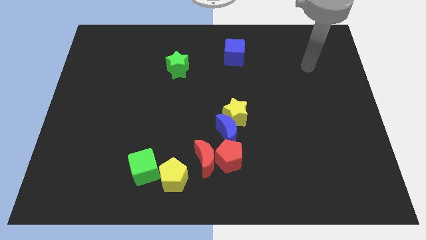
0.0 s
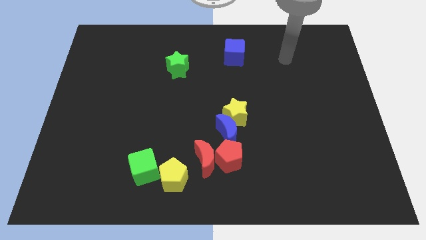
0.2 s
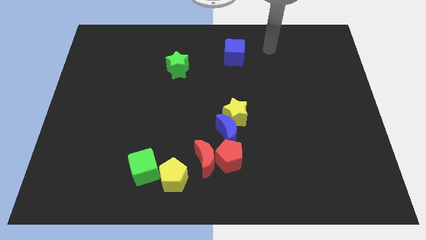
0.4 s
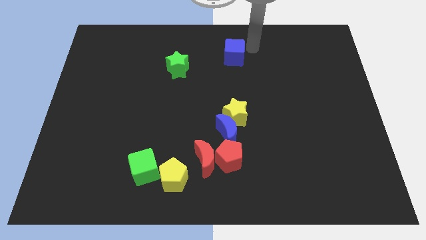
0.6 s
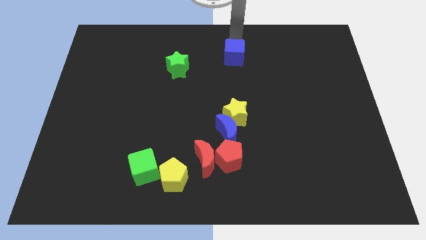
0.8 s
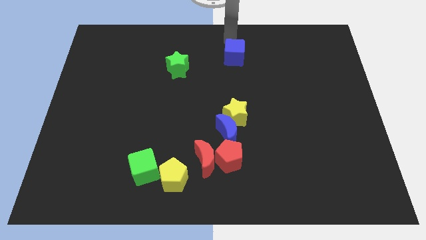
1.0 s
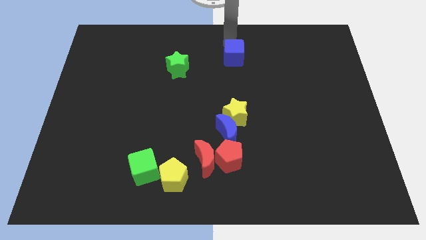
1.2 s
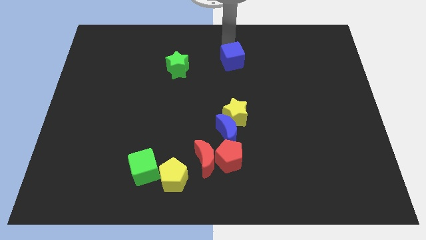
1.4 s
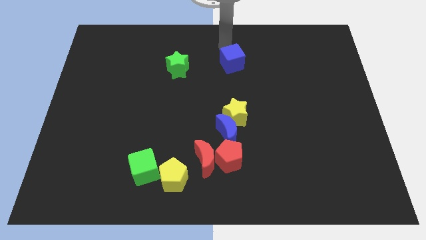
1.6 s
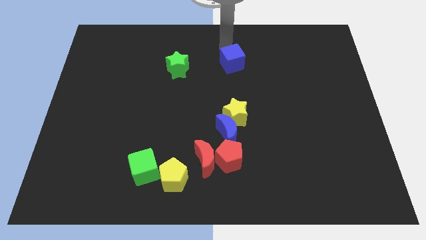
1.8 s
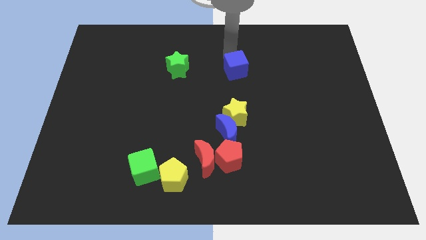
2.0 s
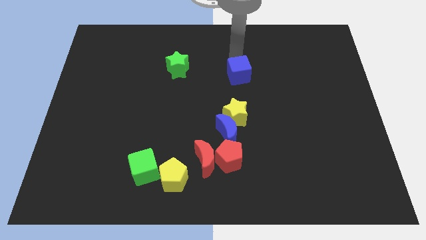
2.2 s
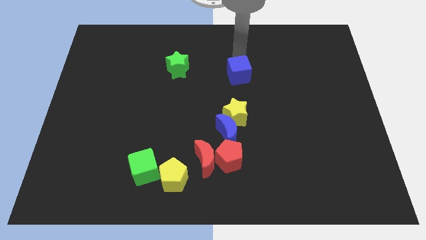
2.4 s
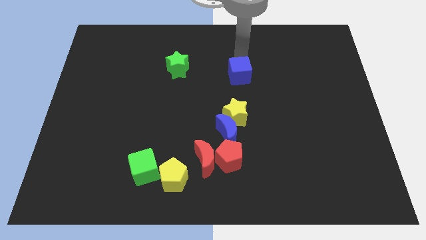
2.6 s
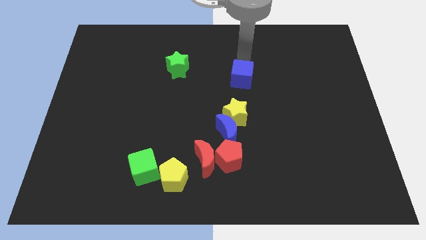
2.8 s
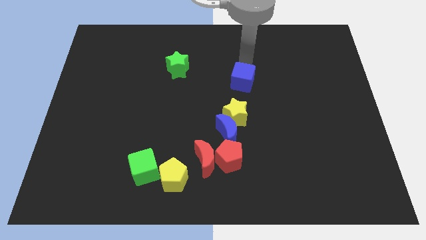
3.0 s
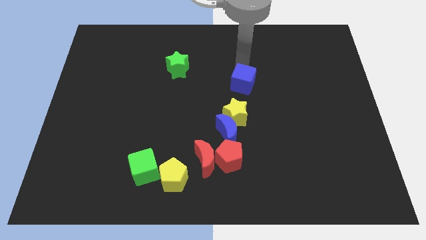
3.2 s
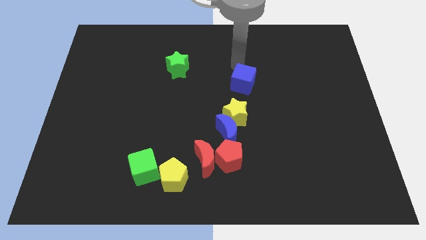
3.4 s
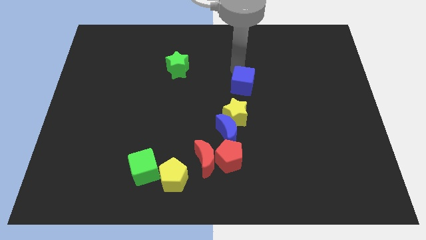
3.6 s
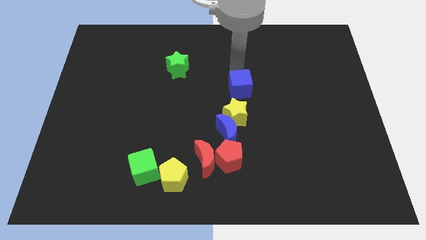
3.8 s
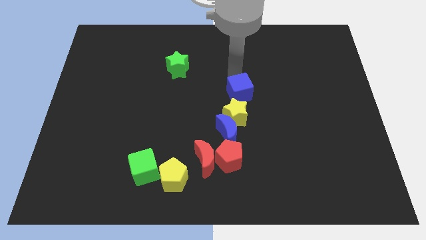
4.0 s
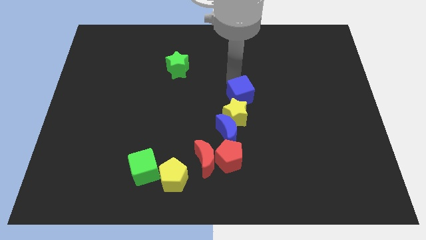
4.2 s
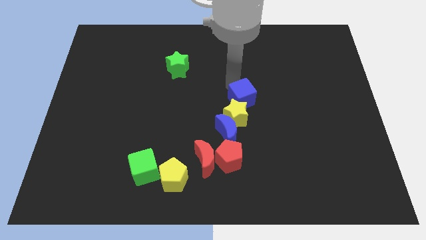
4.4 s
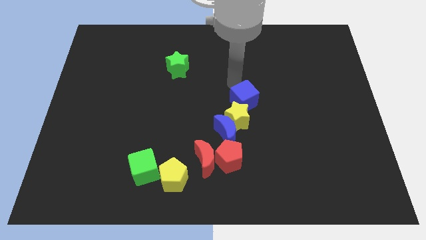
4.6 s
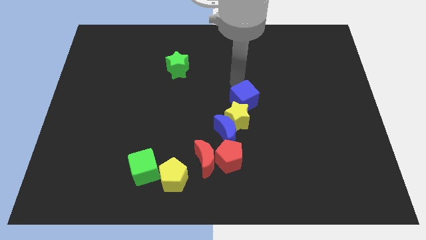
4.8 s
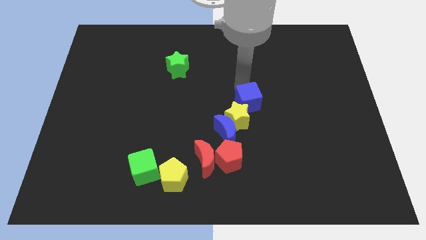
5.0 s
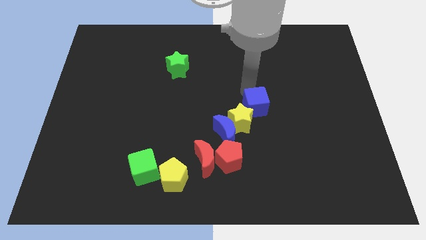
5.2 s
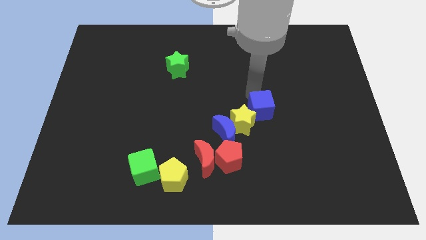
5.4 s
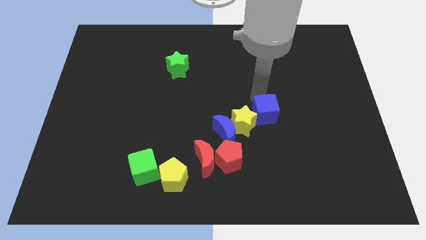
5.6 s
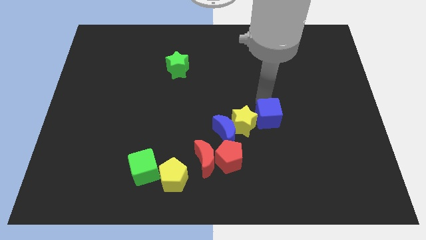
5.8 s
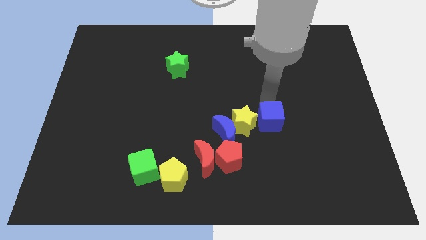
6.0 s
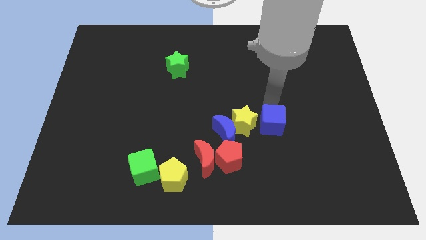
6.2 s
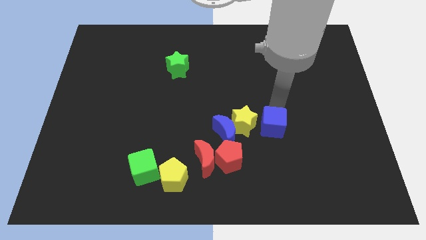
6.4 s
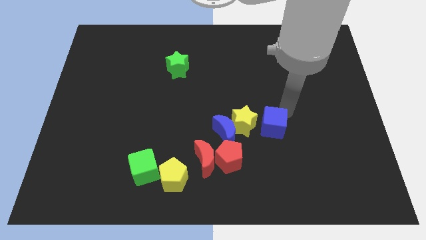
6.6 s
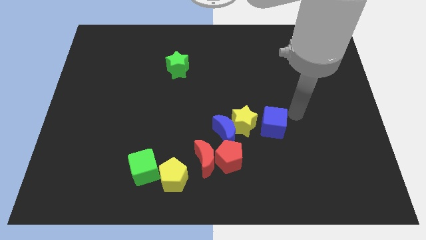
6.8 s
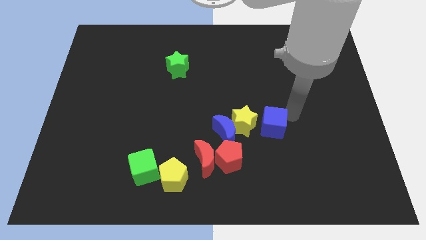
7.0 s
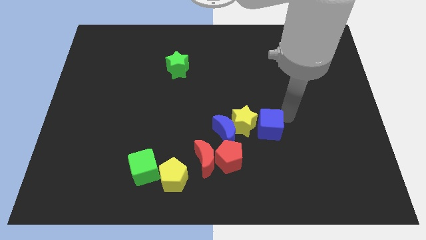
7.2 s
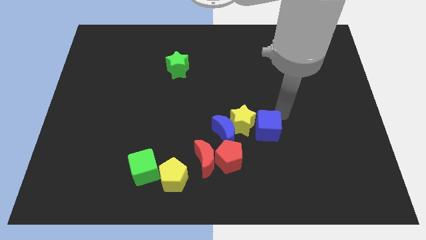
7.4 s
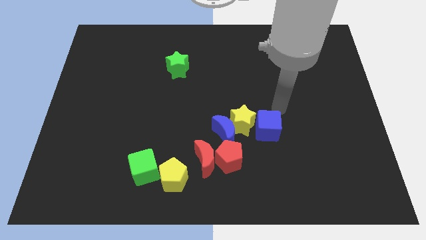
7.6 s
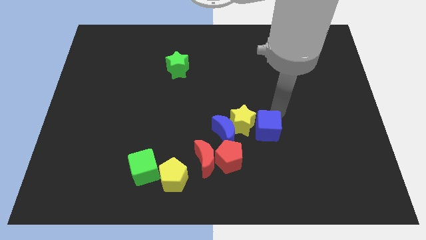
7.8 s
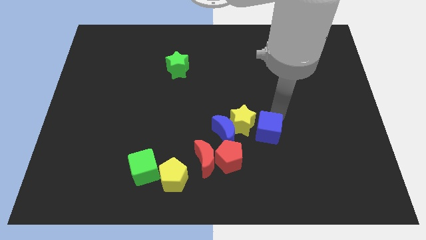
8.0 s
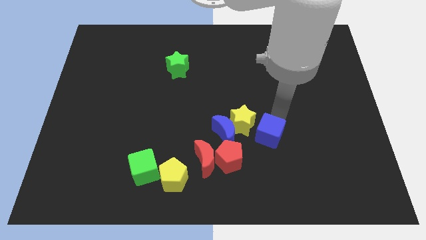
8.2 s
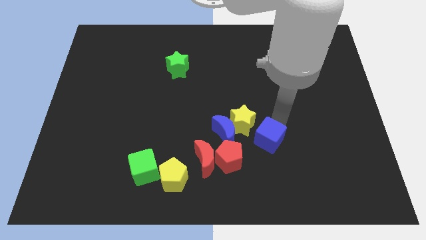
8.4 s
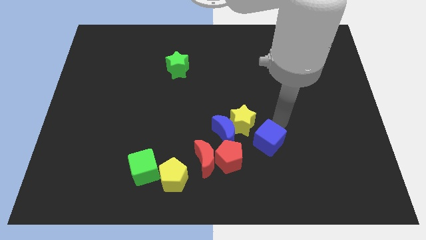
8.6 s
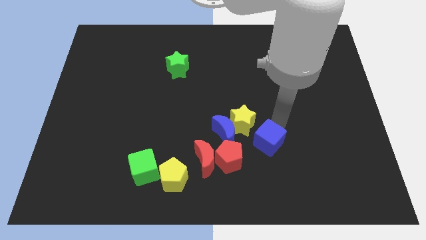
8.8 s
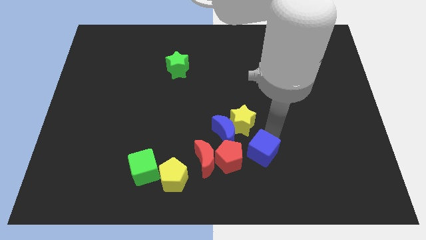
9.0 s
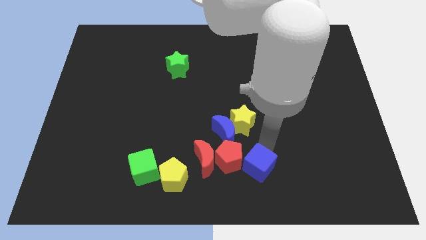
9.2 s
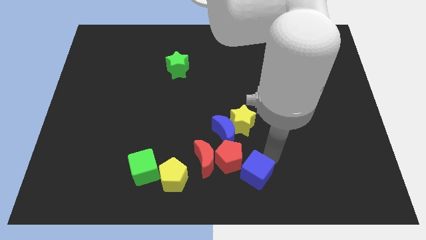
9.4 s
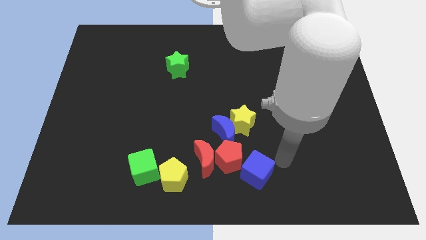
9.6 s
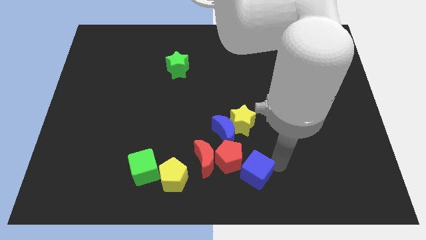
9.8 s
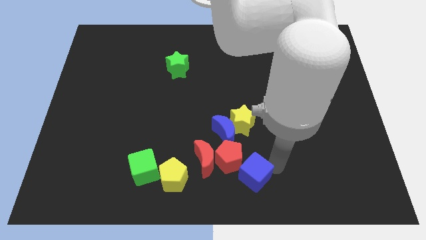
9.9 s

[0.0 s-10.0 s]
push the blue cube to the bottom right side of the red moon

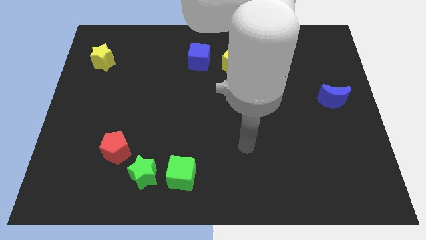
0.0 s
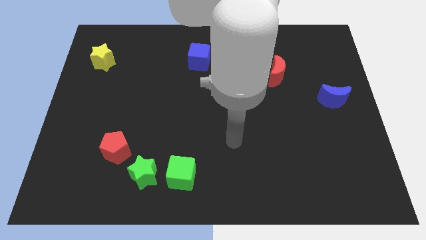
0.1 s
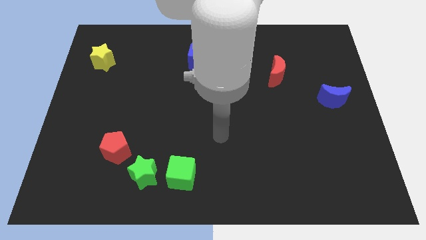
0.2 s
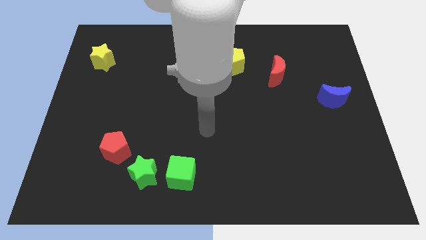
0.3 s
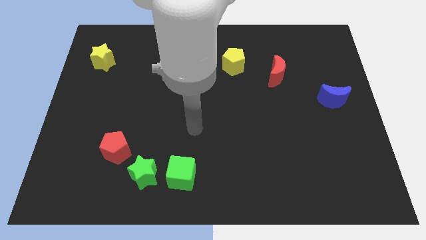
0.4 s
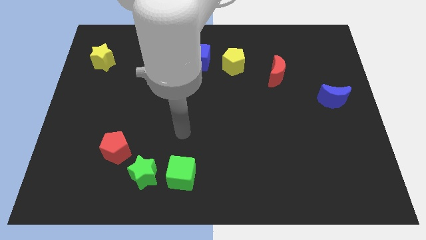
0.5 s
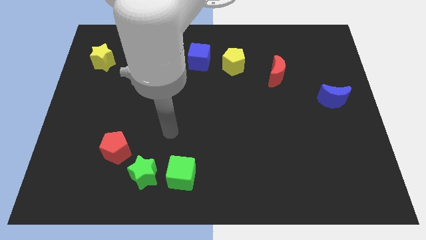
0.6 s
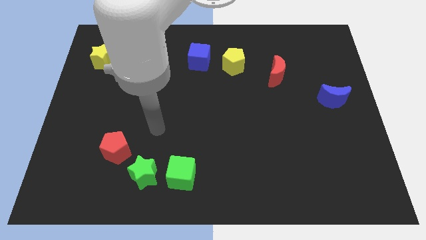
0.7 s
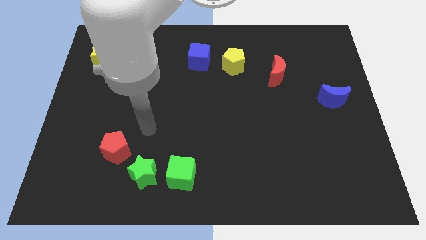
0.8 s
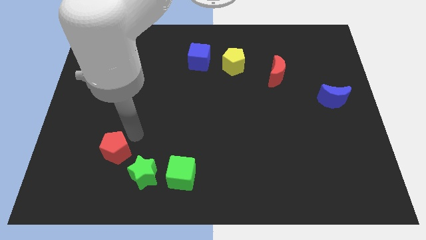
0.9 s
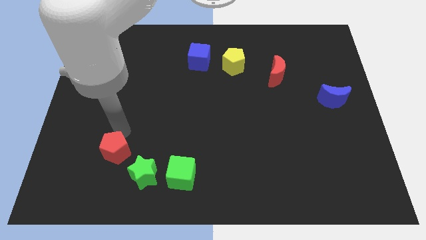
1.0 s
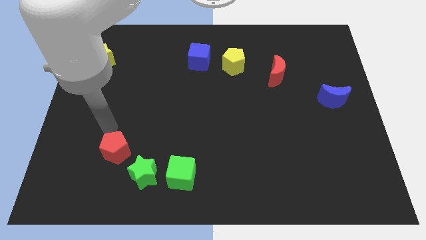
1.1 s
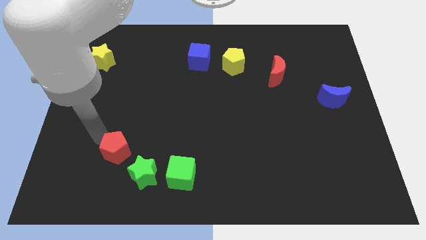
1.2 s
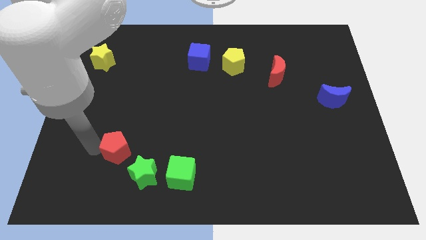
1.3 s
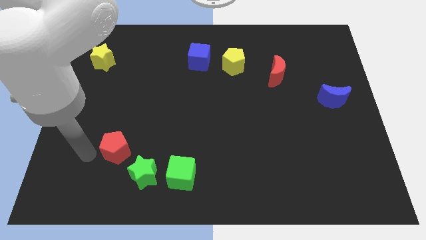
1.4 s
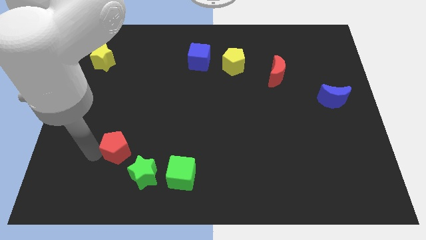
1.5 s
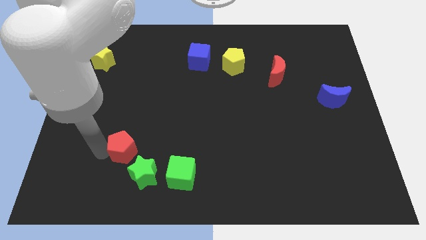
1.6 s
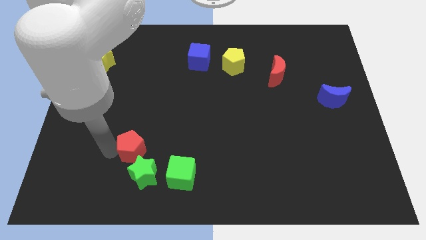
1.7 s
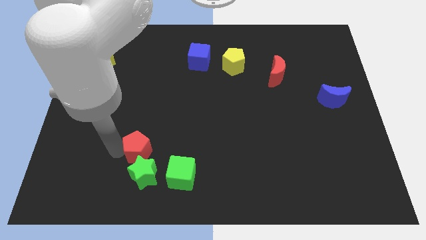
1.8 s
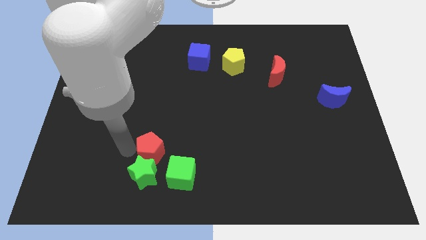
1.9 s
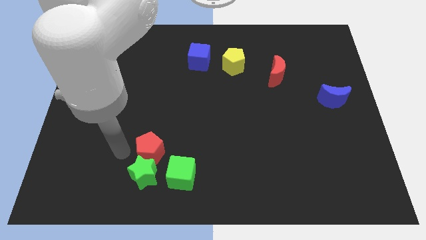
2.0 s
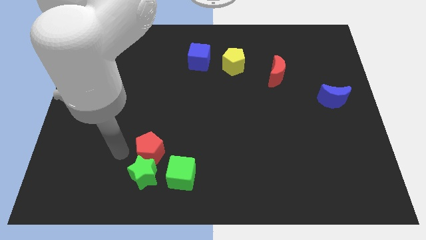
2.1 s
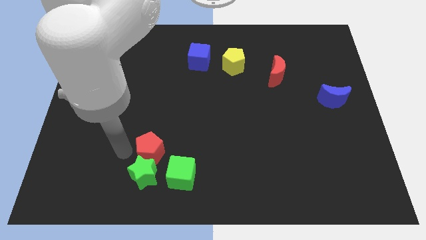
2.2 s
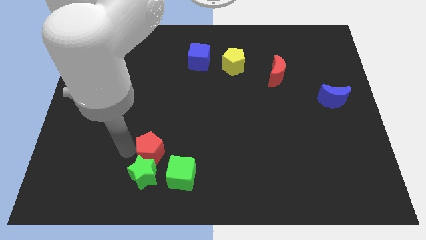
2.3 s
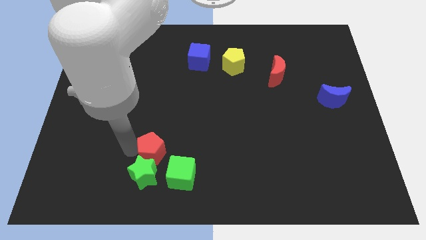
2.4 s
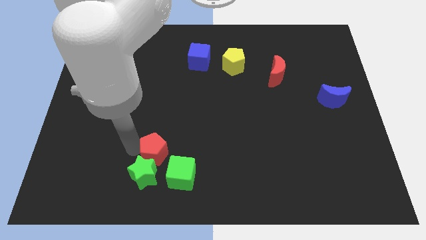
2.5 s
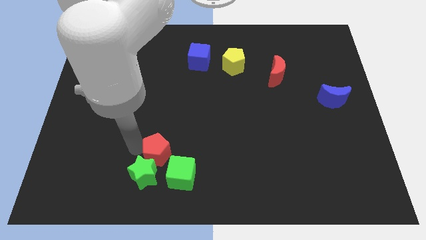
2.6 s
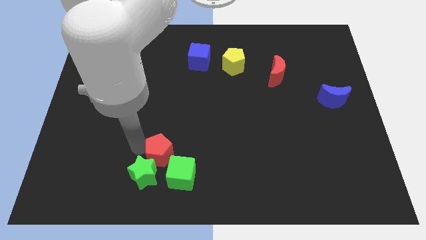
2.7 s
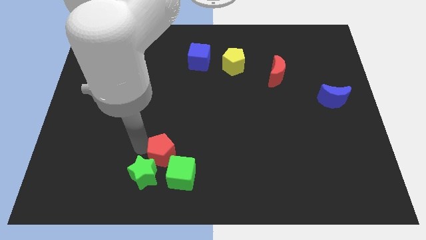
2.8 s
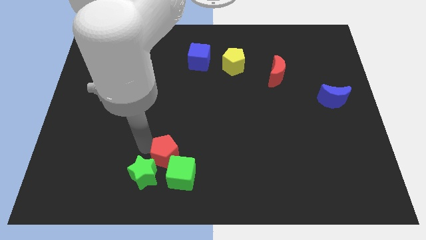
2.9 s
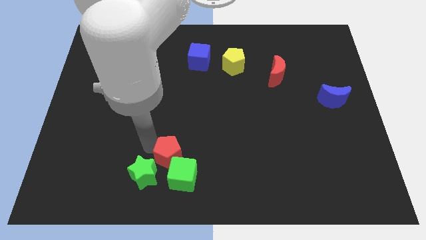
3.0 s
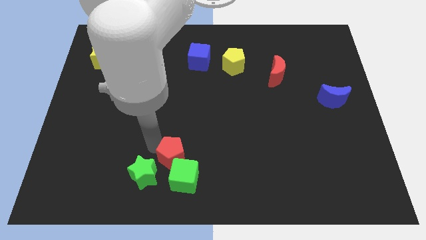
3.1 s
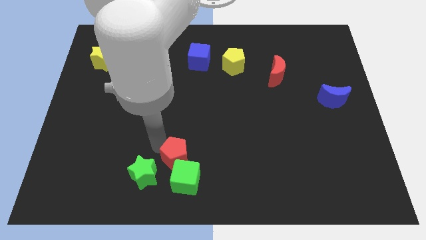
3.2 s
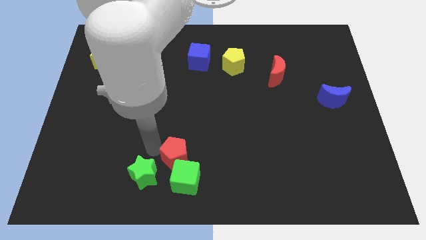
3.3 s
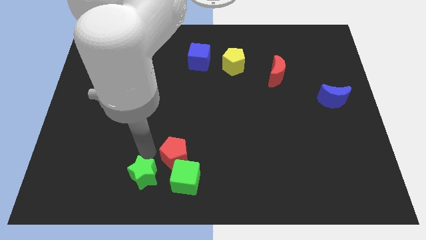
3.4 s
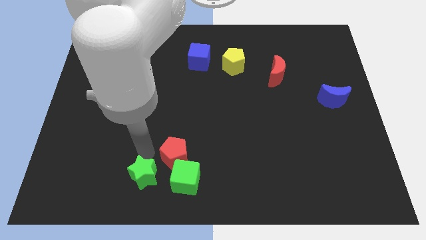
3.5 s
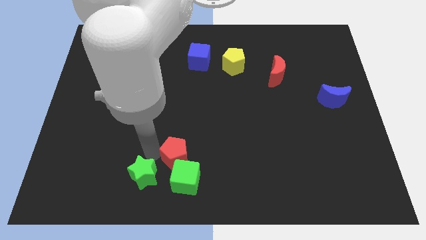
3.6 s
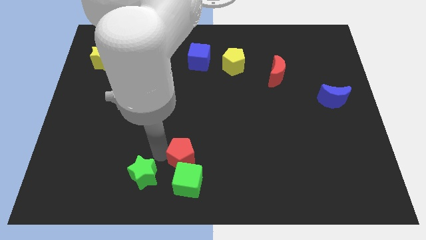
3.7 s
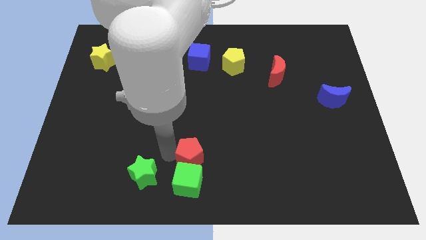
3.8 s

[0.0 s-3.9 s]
move the red pentagon to the top right side of the green cube
